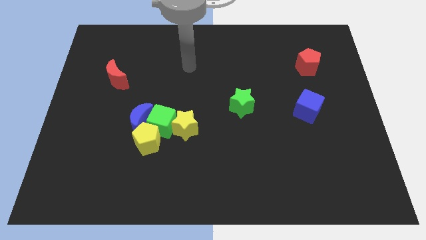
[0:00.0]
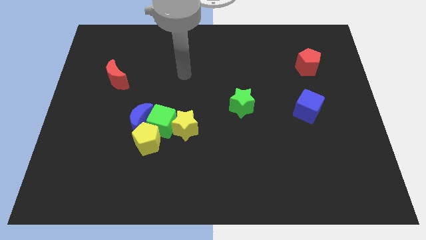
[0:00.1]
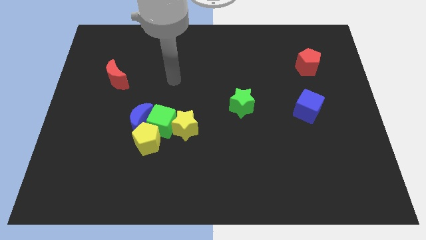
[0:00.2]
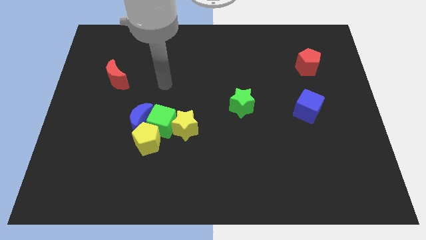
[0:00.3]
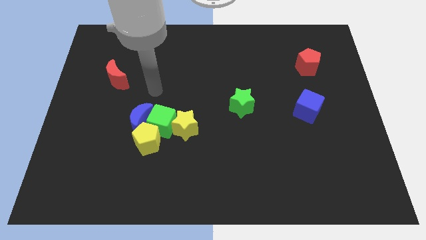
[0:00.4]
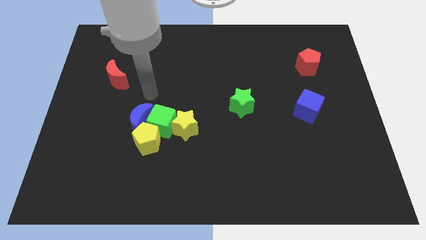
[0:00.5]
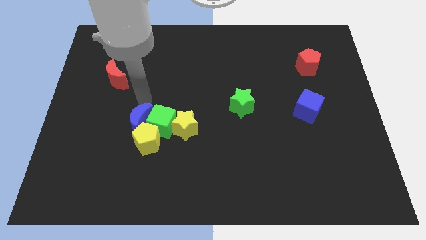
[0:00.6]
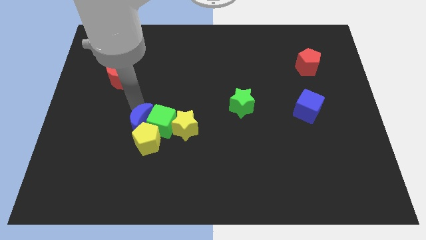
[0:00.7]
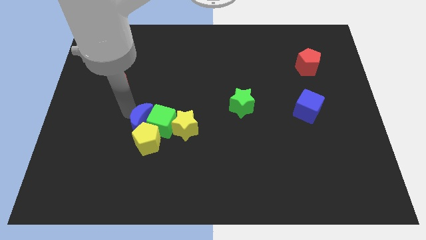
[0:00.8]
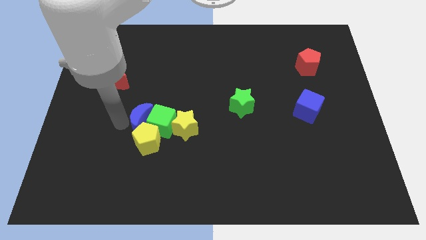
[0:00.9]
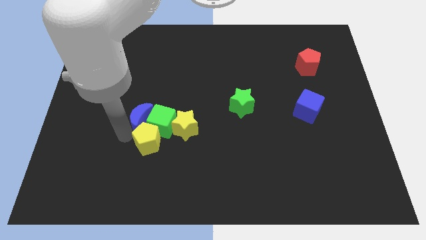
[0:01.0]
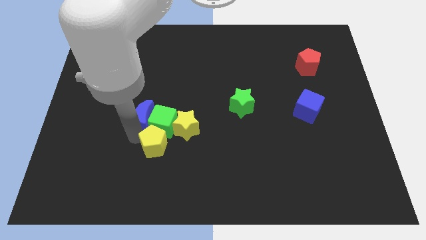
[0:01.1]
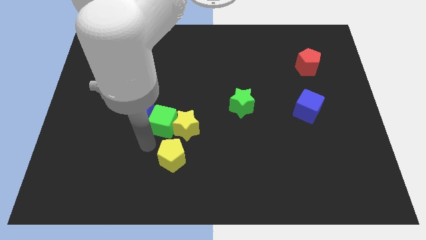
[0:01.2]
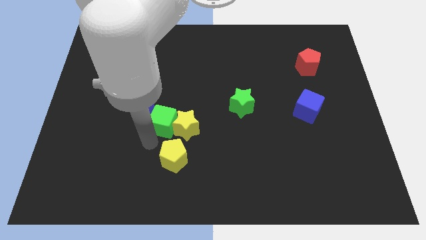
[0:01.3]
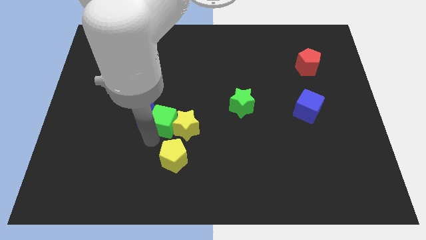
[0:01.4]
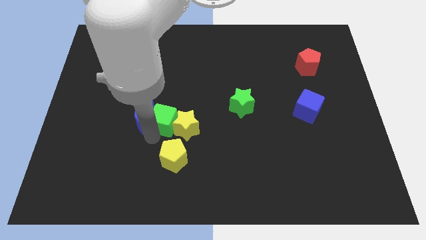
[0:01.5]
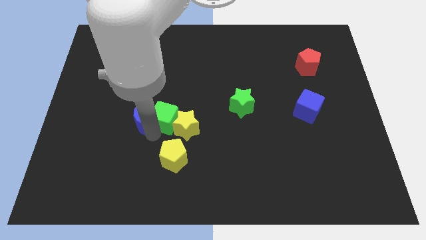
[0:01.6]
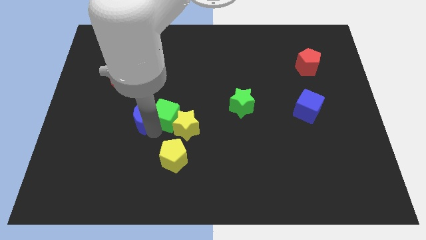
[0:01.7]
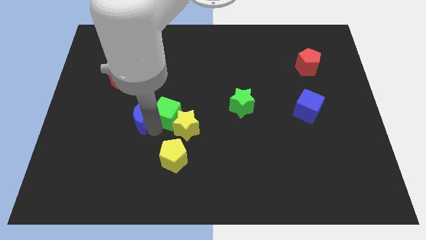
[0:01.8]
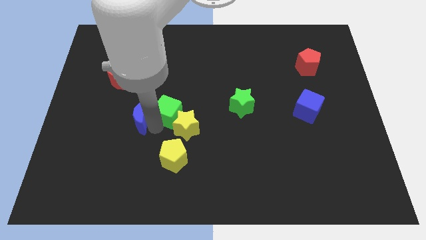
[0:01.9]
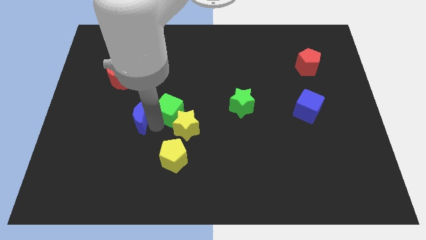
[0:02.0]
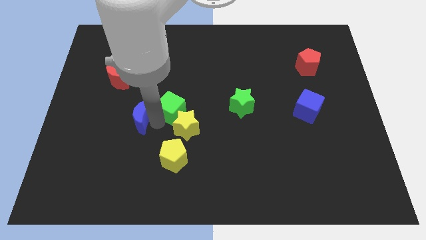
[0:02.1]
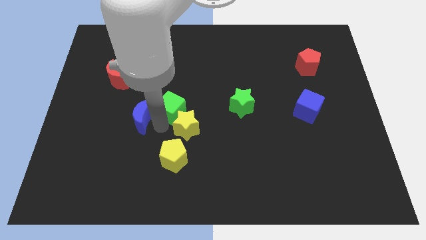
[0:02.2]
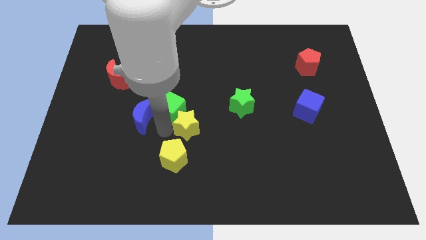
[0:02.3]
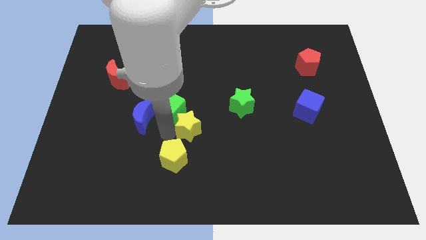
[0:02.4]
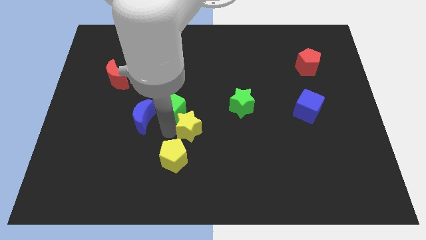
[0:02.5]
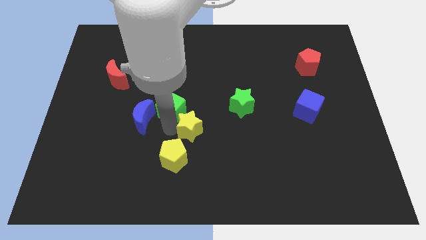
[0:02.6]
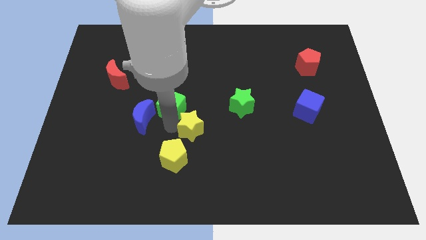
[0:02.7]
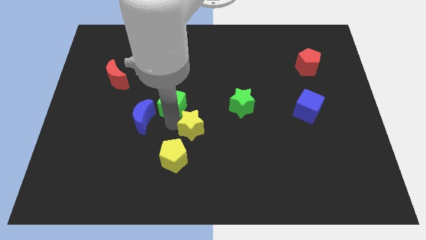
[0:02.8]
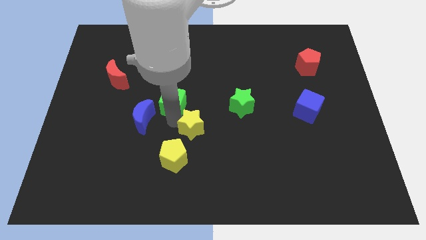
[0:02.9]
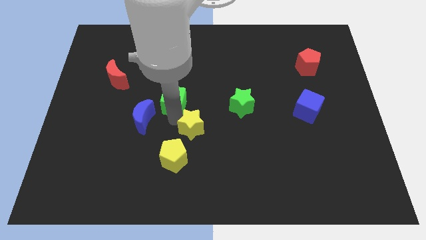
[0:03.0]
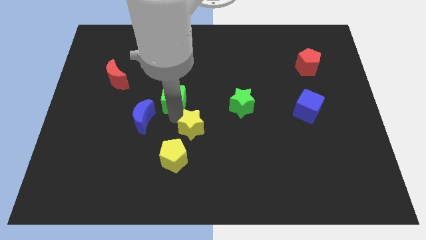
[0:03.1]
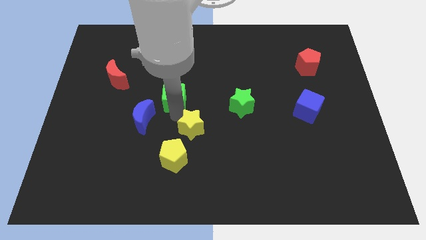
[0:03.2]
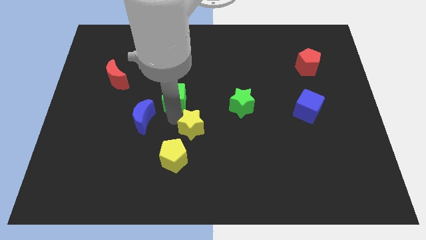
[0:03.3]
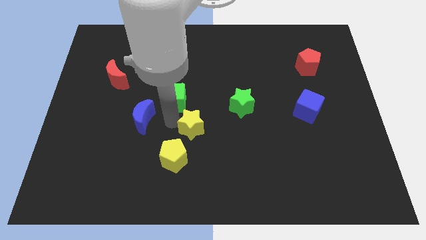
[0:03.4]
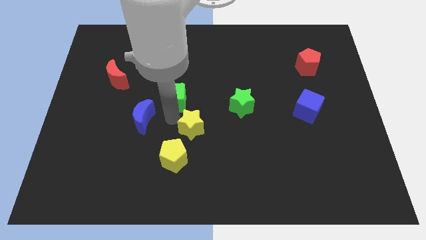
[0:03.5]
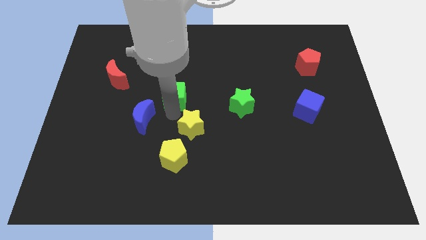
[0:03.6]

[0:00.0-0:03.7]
separate the green cube from the group

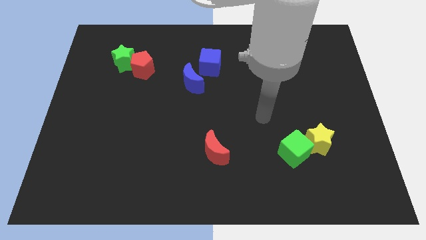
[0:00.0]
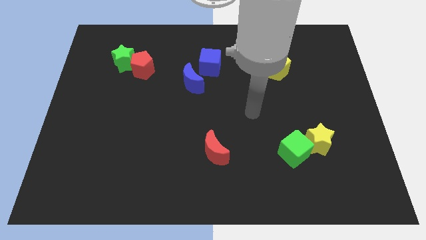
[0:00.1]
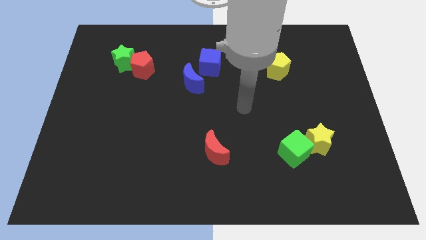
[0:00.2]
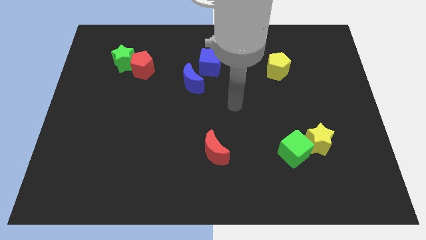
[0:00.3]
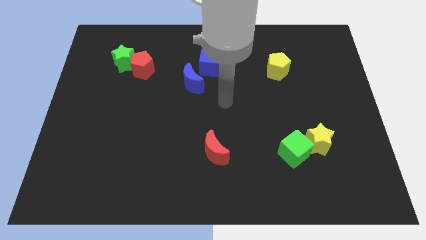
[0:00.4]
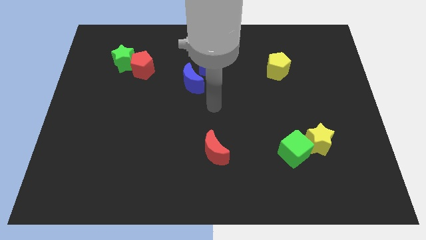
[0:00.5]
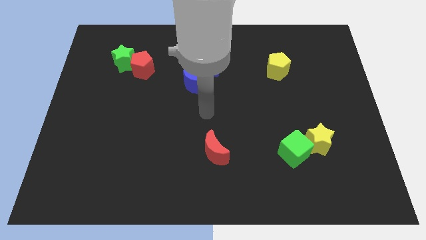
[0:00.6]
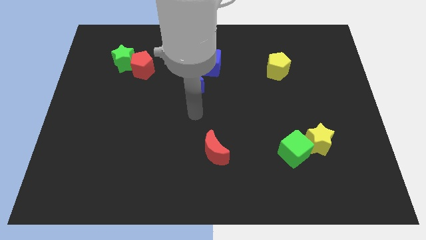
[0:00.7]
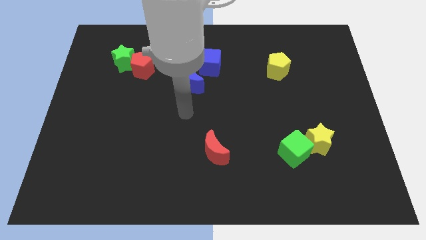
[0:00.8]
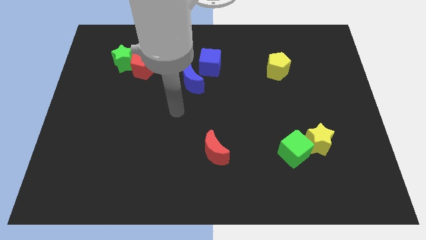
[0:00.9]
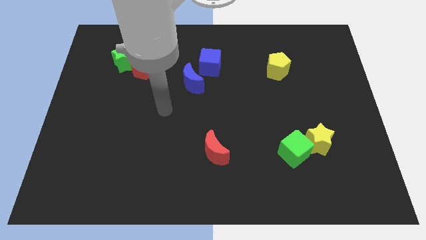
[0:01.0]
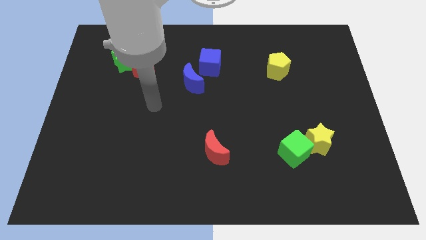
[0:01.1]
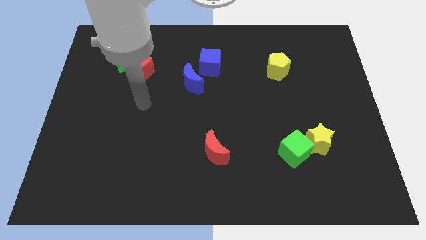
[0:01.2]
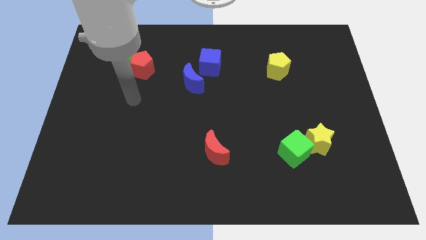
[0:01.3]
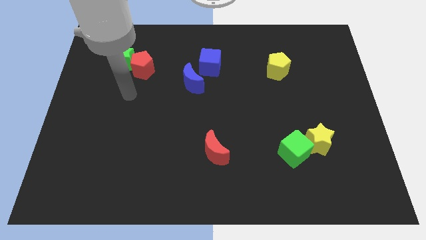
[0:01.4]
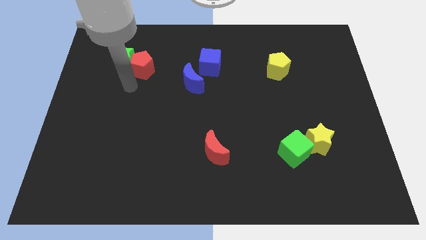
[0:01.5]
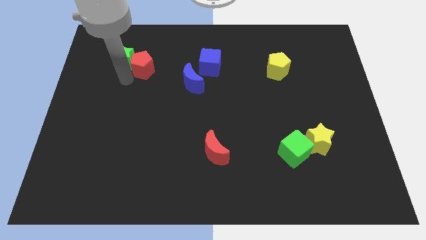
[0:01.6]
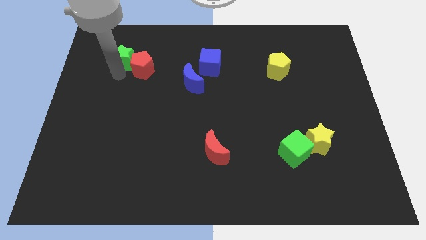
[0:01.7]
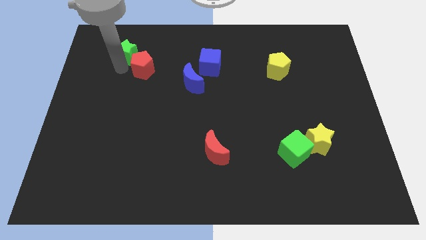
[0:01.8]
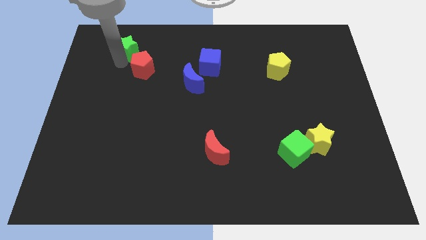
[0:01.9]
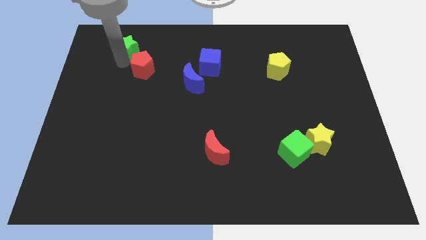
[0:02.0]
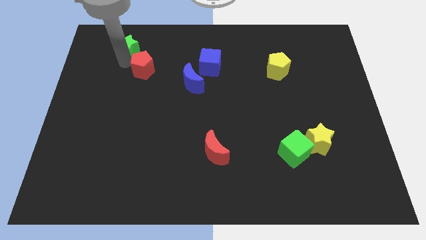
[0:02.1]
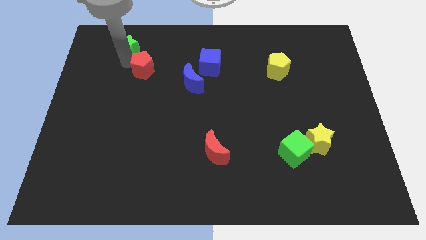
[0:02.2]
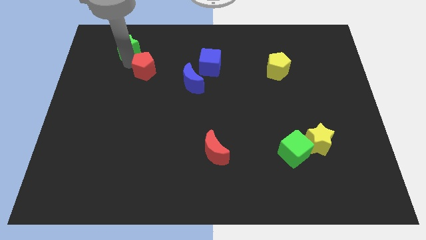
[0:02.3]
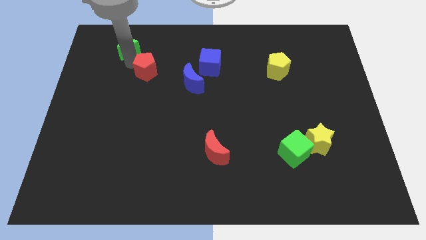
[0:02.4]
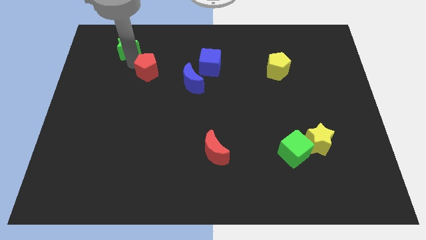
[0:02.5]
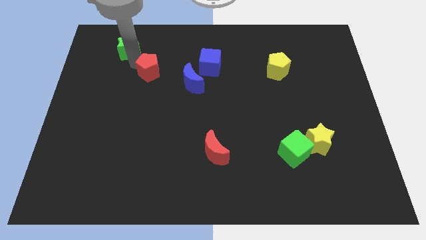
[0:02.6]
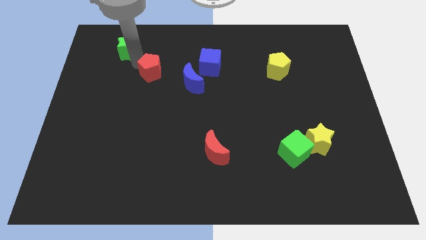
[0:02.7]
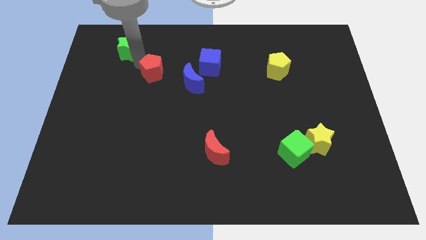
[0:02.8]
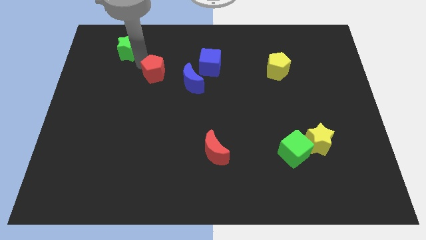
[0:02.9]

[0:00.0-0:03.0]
separate the red pentagon from the green star

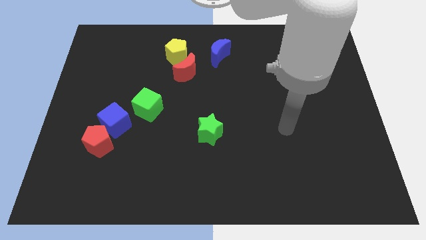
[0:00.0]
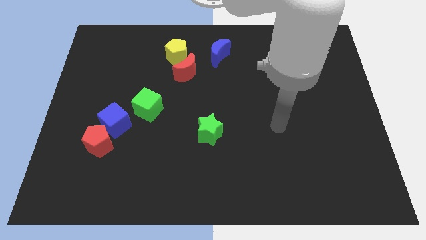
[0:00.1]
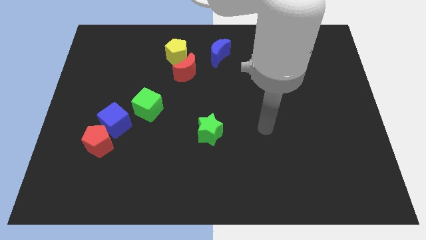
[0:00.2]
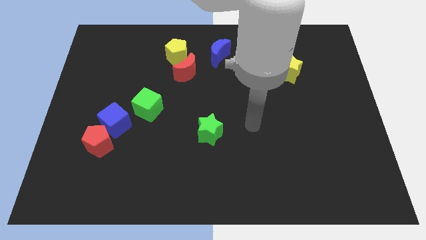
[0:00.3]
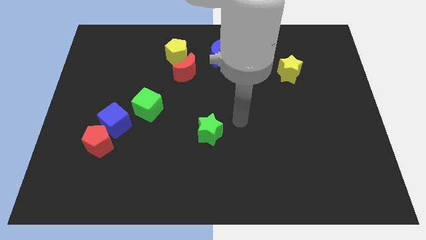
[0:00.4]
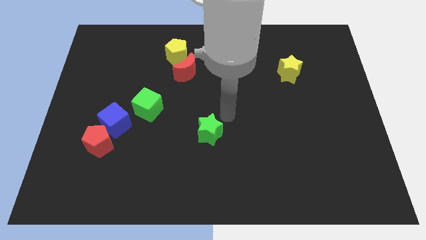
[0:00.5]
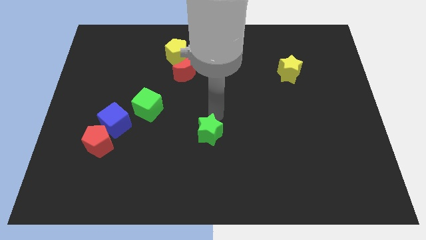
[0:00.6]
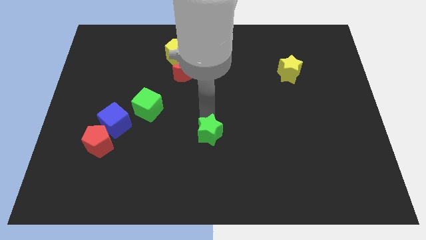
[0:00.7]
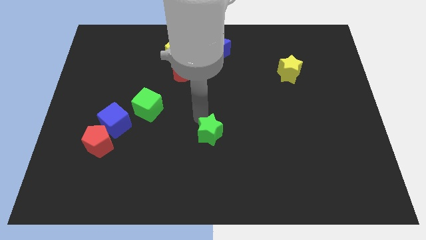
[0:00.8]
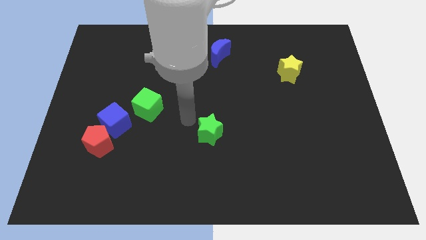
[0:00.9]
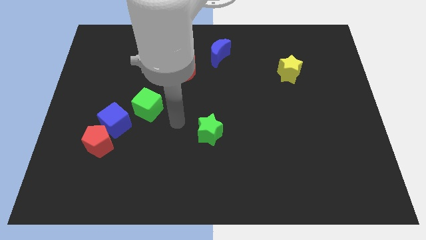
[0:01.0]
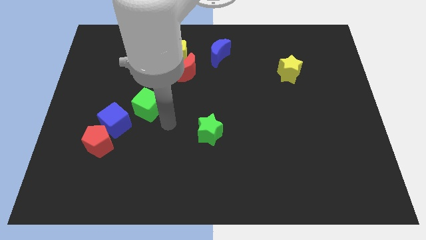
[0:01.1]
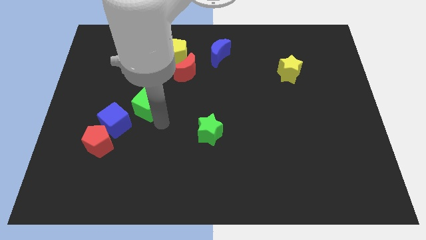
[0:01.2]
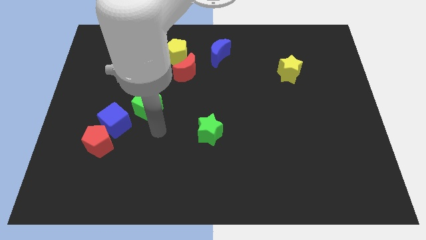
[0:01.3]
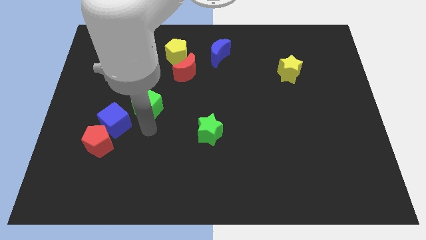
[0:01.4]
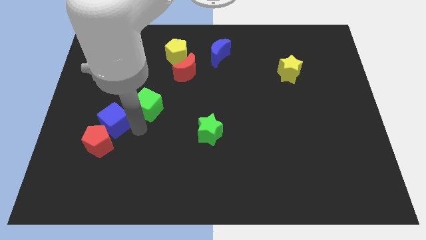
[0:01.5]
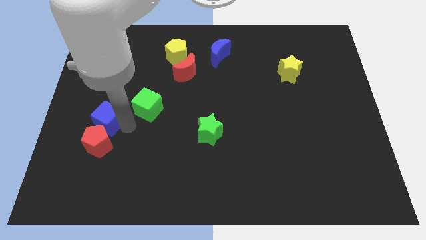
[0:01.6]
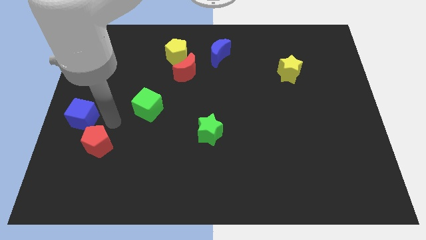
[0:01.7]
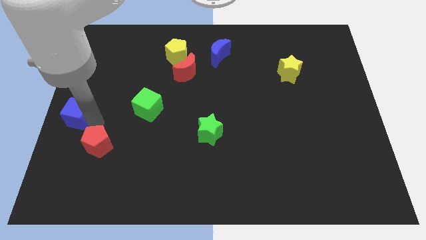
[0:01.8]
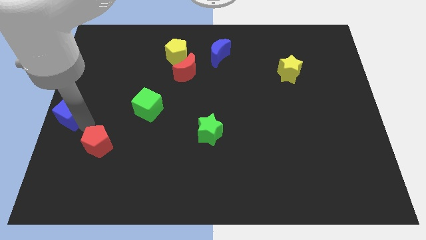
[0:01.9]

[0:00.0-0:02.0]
separate the red pentagon from the blue cube

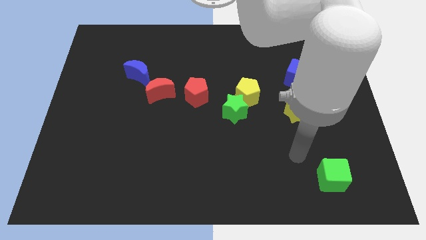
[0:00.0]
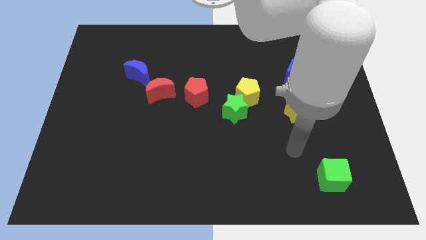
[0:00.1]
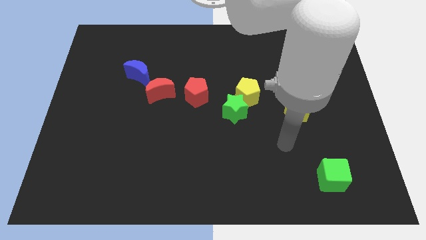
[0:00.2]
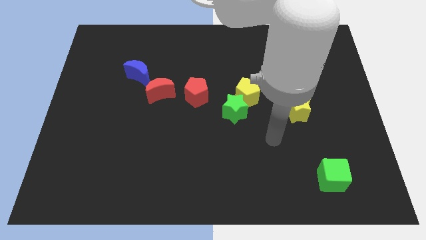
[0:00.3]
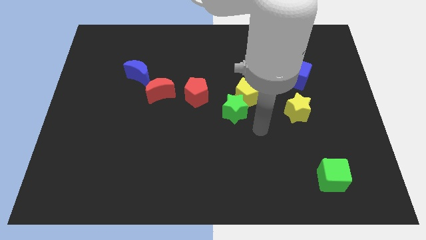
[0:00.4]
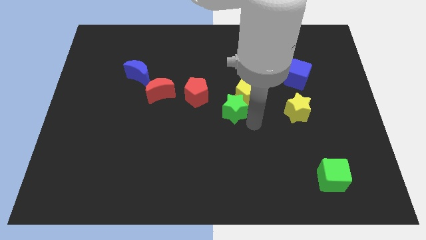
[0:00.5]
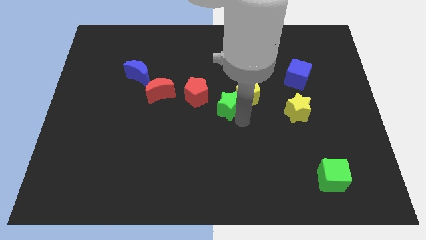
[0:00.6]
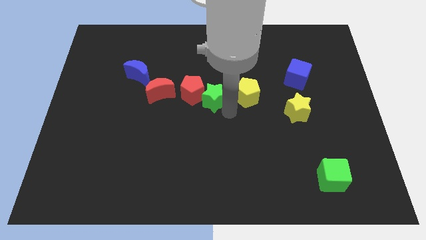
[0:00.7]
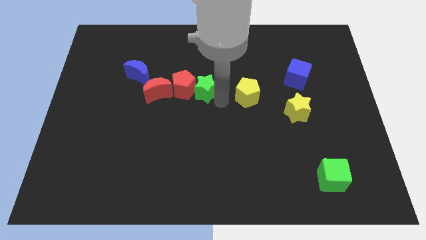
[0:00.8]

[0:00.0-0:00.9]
separate the yellow pentagon from the green star
